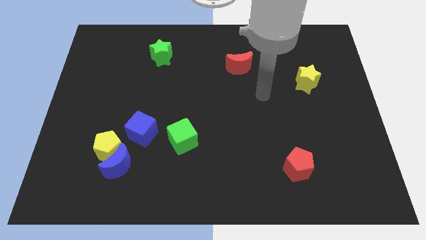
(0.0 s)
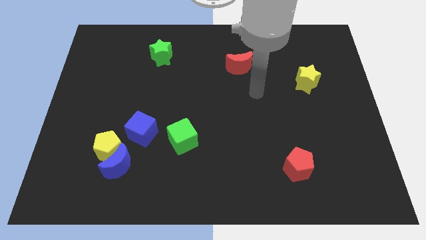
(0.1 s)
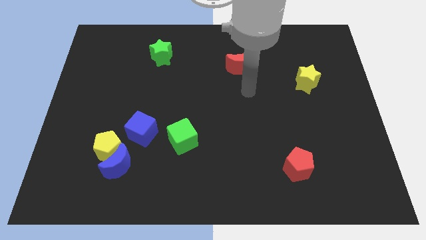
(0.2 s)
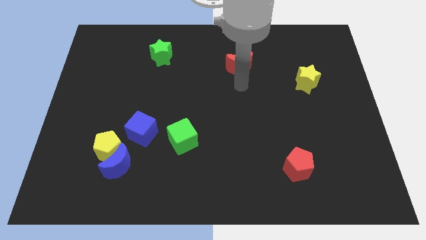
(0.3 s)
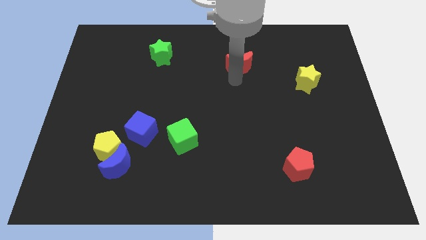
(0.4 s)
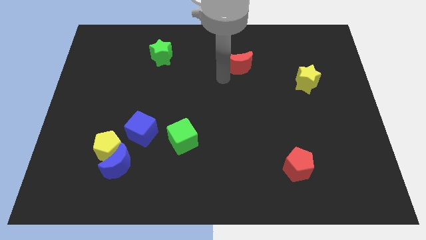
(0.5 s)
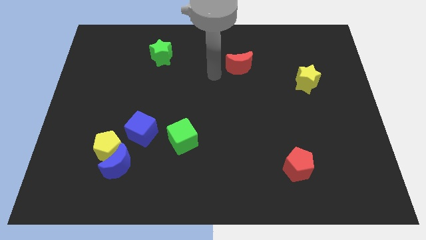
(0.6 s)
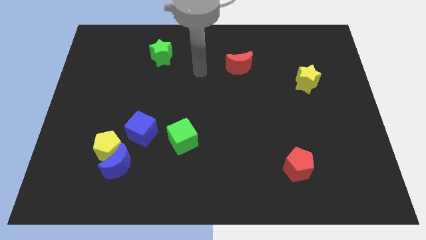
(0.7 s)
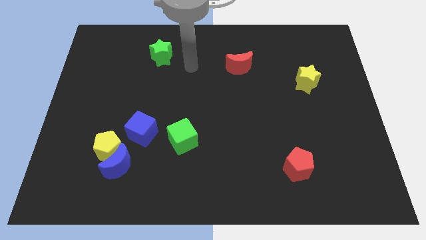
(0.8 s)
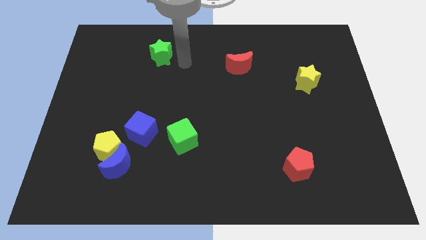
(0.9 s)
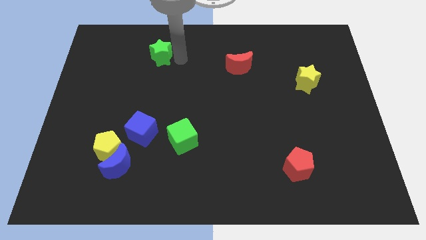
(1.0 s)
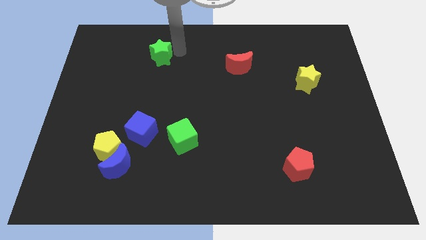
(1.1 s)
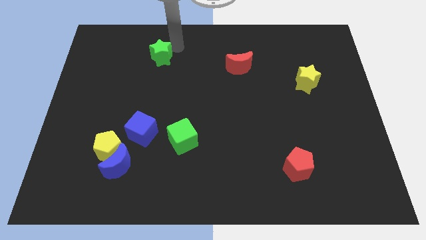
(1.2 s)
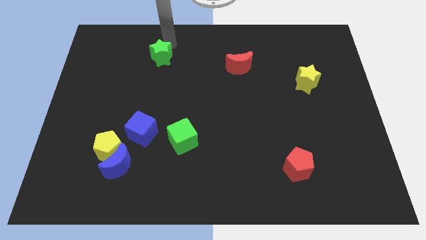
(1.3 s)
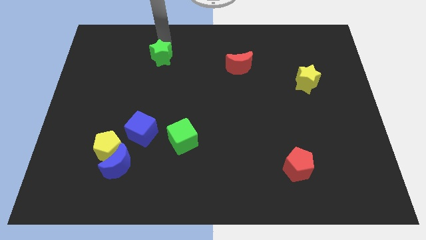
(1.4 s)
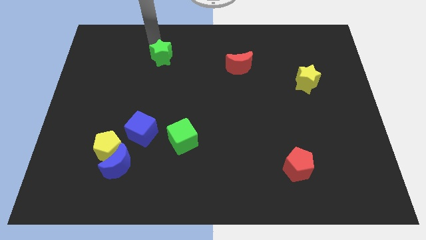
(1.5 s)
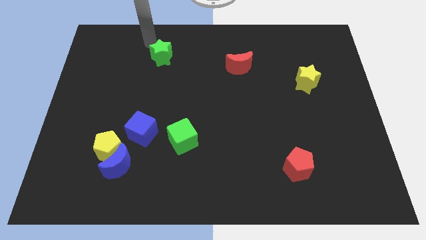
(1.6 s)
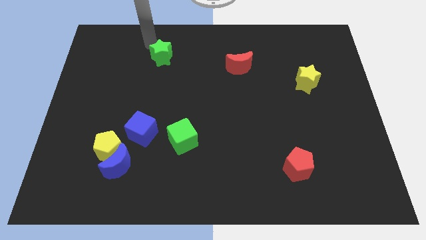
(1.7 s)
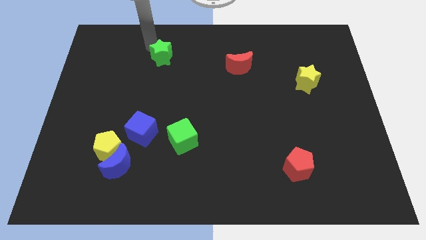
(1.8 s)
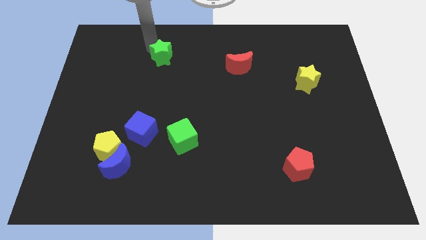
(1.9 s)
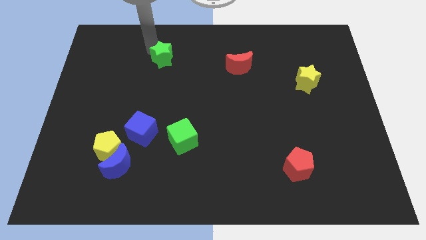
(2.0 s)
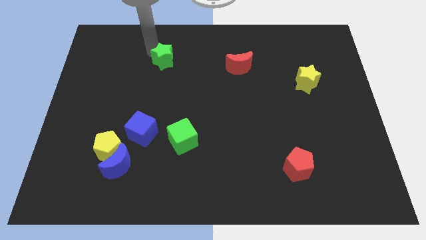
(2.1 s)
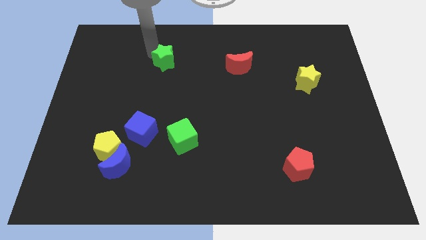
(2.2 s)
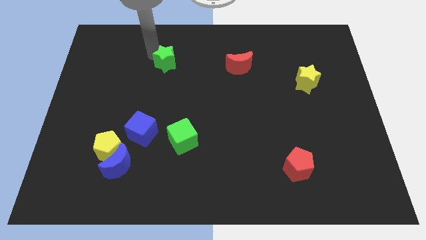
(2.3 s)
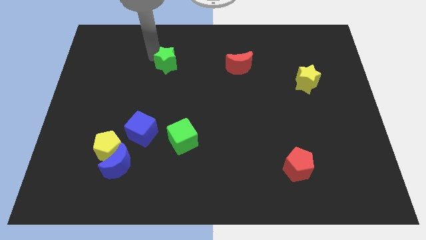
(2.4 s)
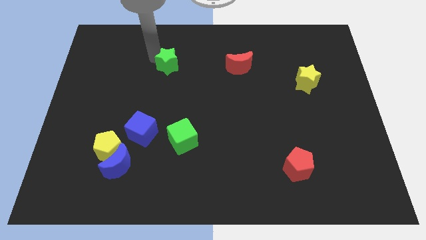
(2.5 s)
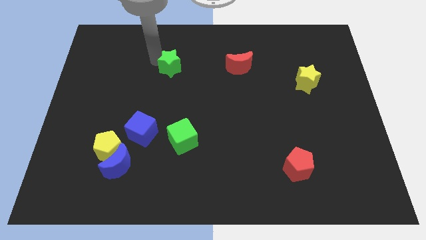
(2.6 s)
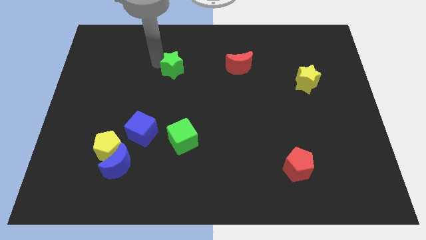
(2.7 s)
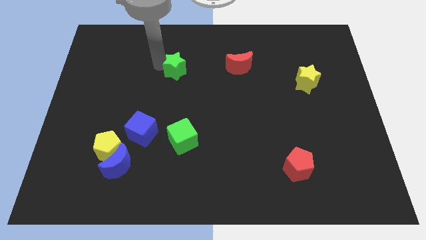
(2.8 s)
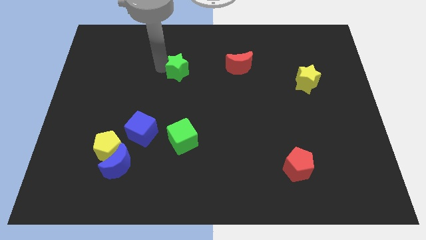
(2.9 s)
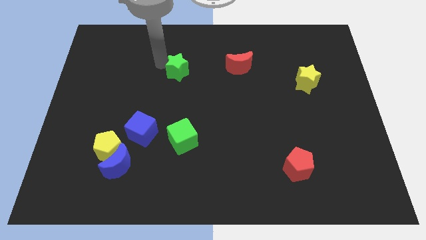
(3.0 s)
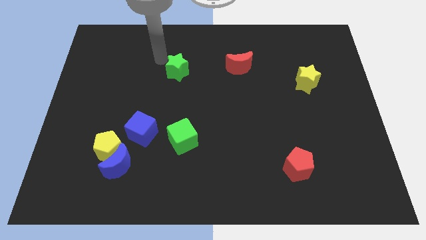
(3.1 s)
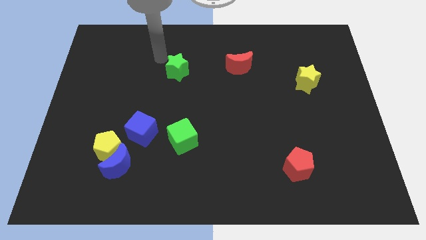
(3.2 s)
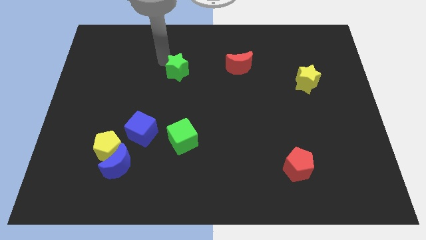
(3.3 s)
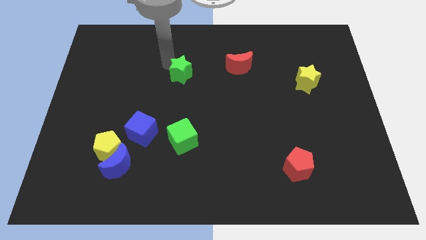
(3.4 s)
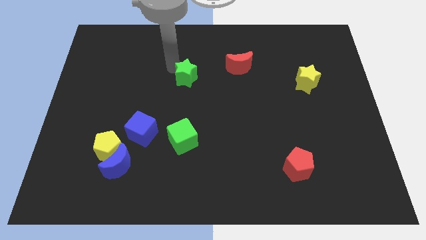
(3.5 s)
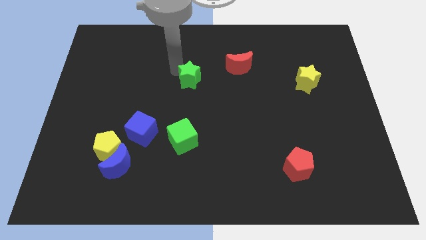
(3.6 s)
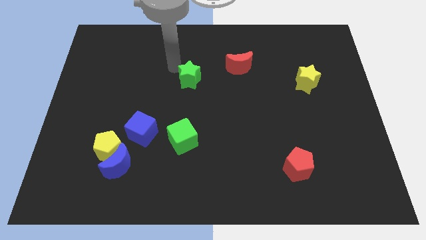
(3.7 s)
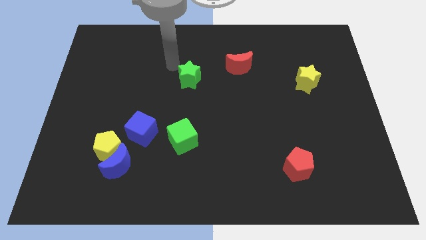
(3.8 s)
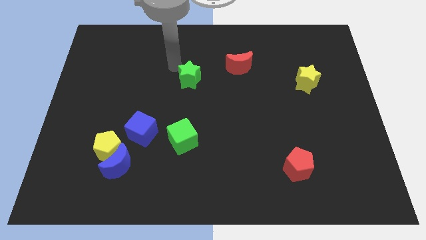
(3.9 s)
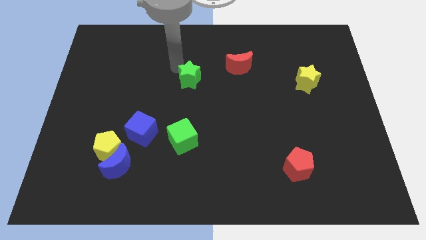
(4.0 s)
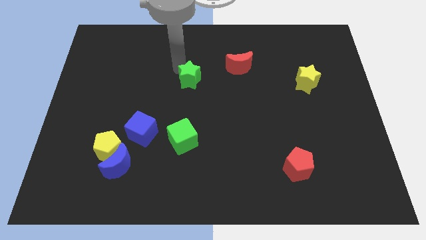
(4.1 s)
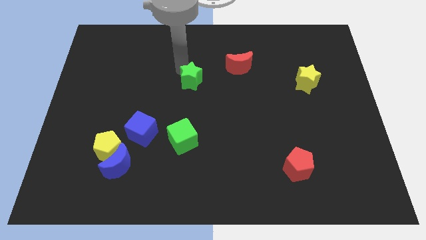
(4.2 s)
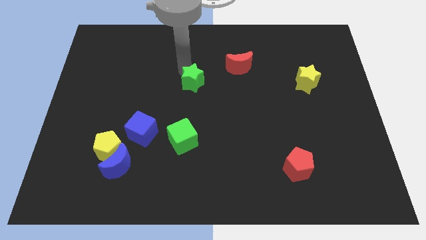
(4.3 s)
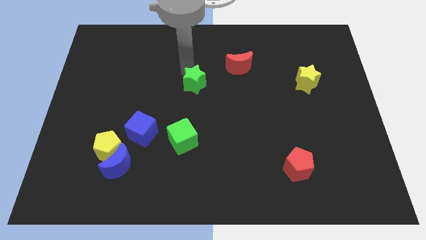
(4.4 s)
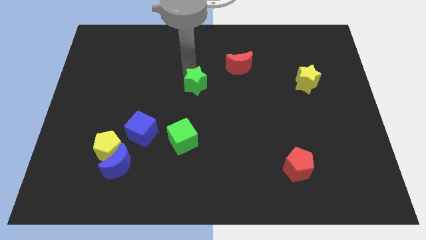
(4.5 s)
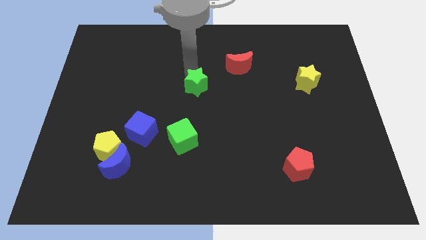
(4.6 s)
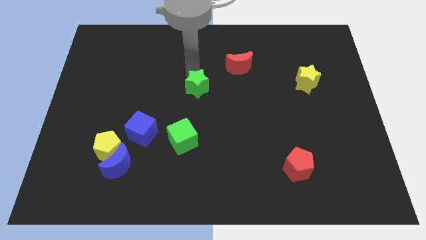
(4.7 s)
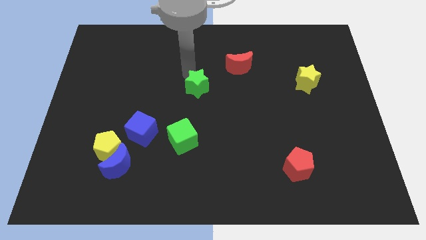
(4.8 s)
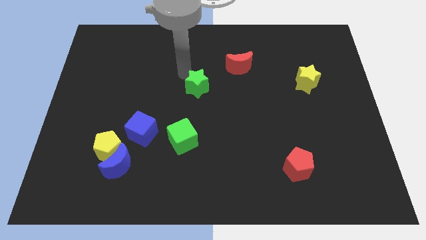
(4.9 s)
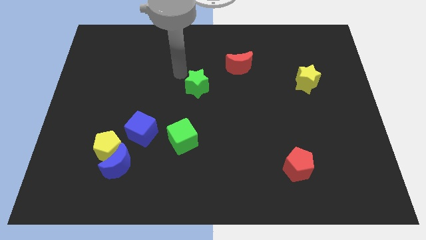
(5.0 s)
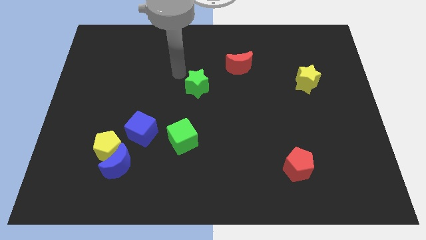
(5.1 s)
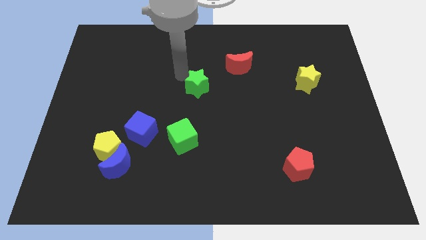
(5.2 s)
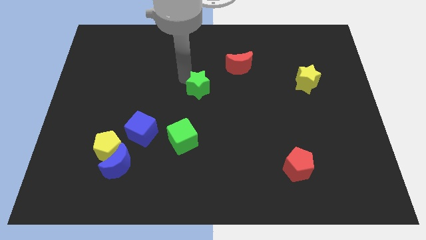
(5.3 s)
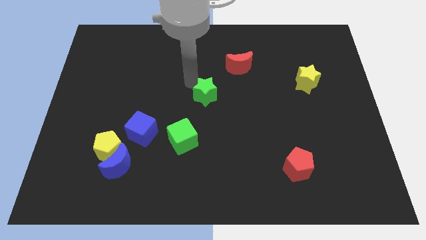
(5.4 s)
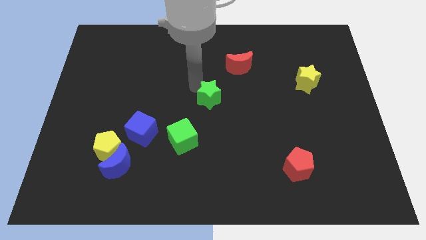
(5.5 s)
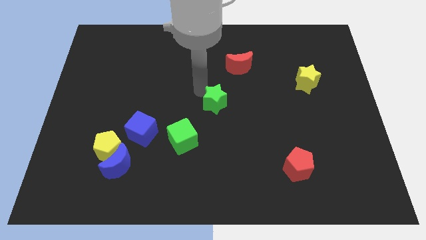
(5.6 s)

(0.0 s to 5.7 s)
move the green star diagonally down and to the right

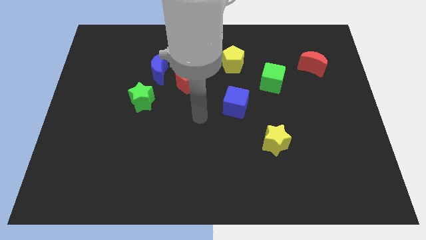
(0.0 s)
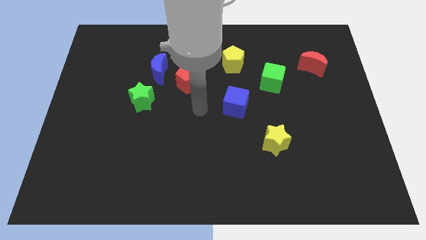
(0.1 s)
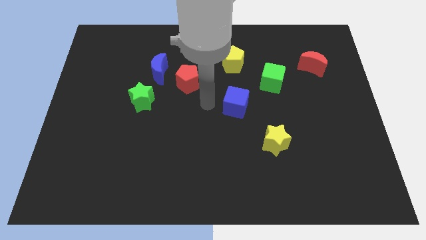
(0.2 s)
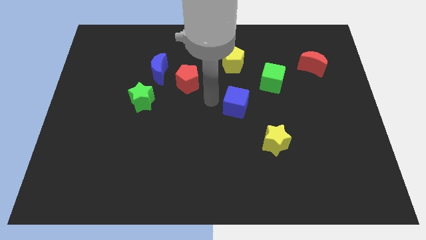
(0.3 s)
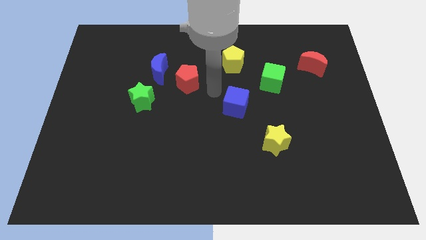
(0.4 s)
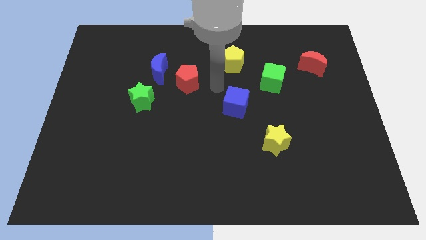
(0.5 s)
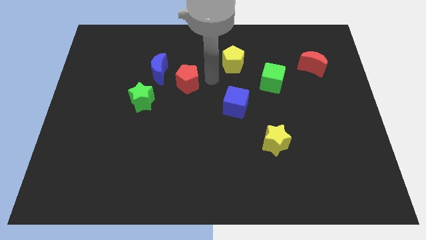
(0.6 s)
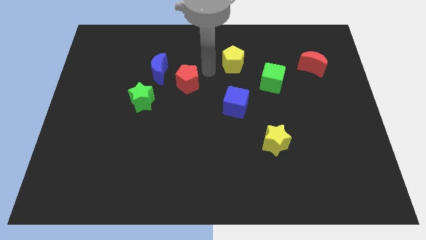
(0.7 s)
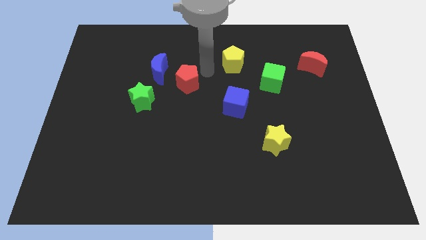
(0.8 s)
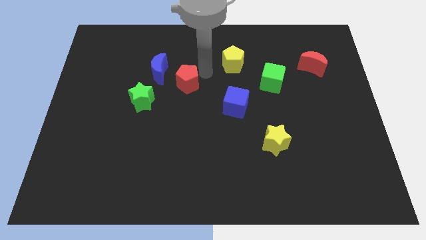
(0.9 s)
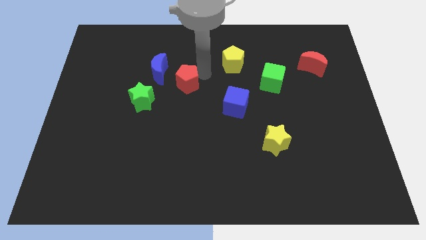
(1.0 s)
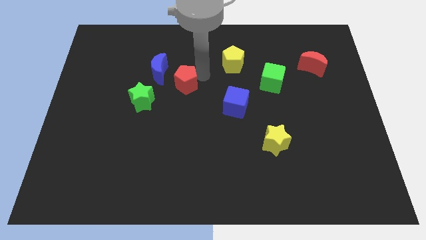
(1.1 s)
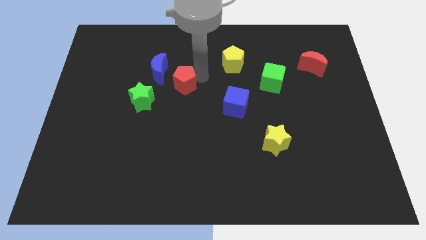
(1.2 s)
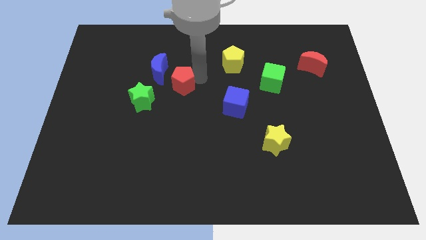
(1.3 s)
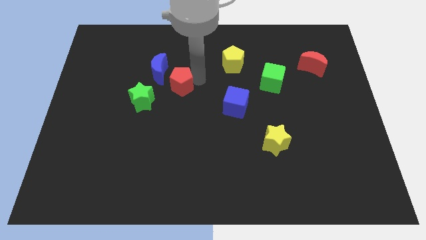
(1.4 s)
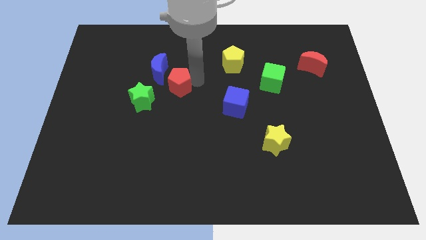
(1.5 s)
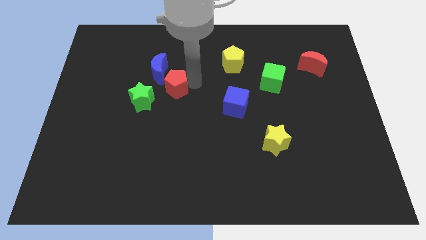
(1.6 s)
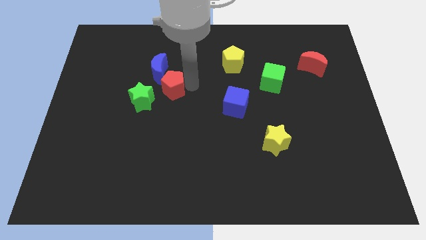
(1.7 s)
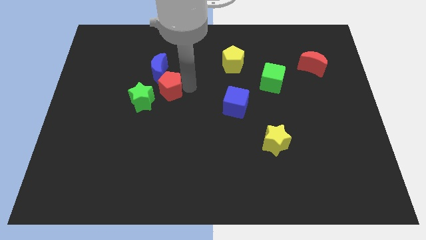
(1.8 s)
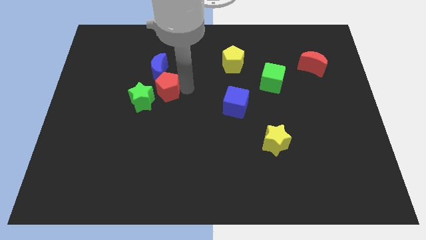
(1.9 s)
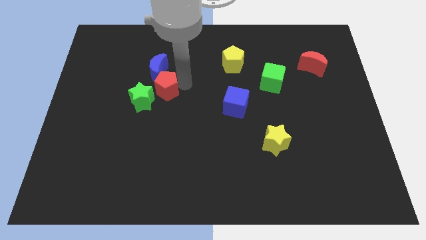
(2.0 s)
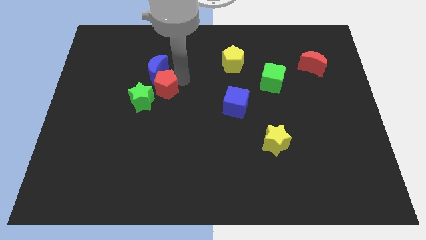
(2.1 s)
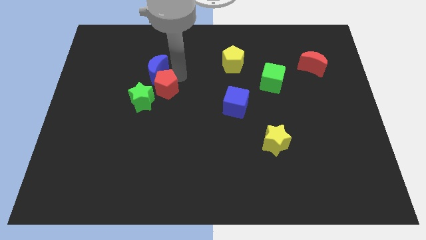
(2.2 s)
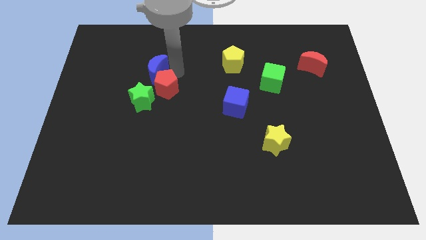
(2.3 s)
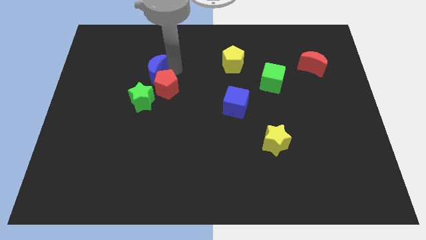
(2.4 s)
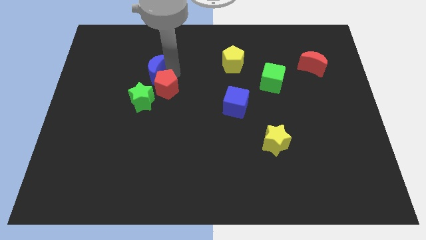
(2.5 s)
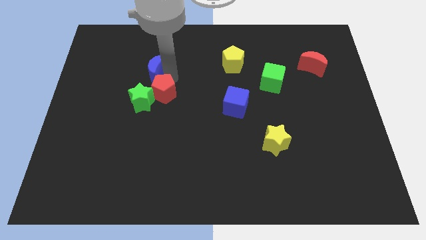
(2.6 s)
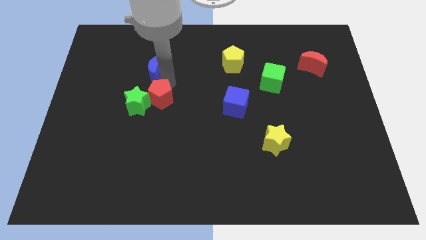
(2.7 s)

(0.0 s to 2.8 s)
push the red pentagon downwards and to the left somewhat
